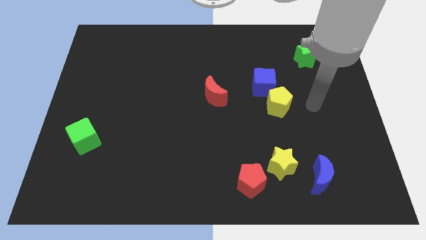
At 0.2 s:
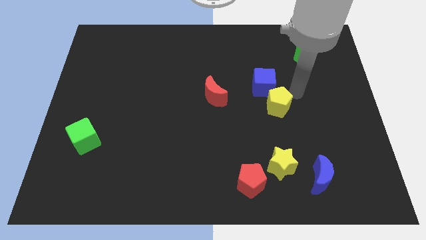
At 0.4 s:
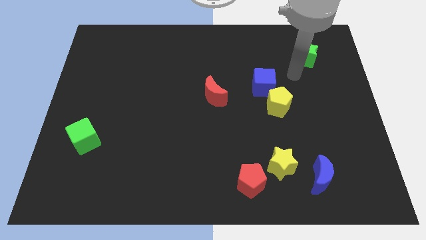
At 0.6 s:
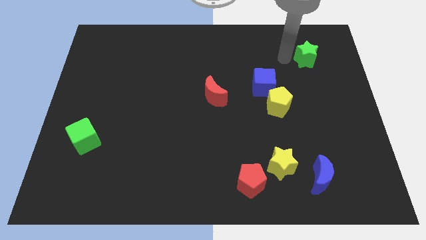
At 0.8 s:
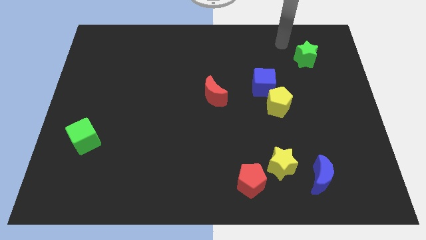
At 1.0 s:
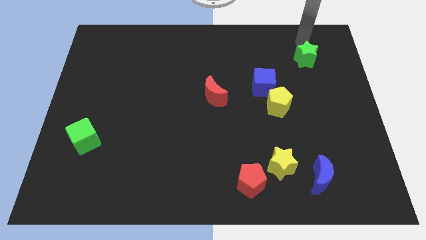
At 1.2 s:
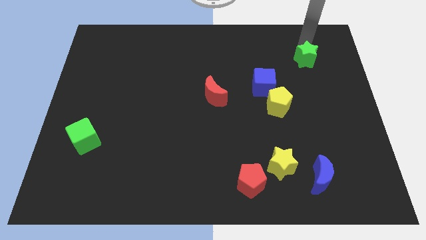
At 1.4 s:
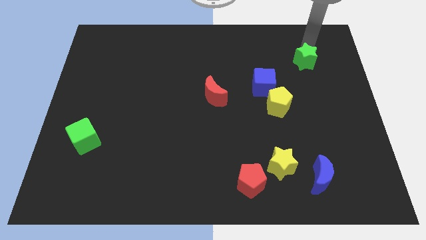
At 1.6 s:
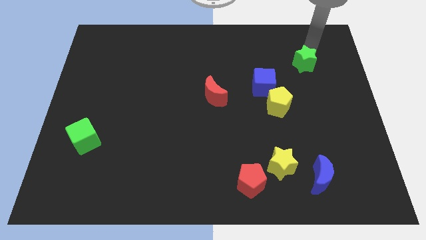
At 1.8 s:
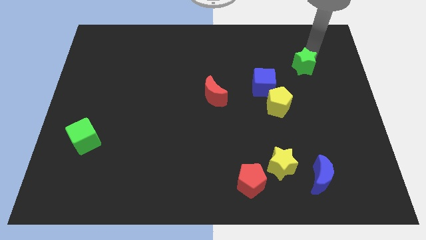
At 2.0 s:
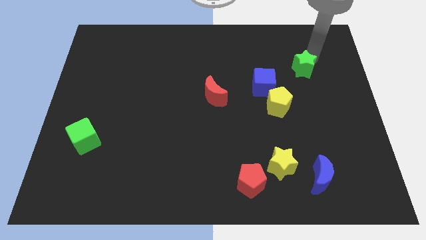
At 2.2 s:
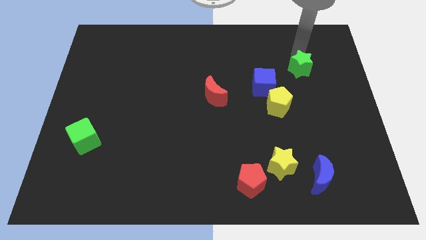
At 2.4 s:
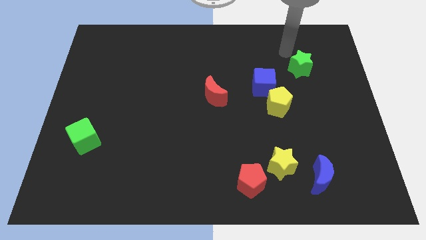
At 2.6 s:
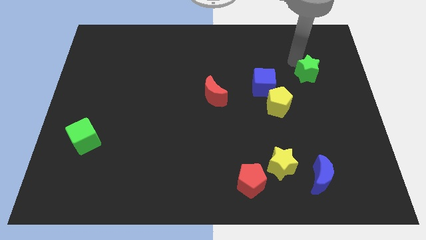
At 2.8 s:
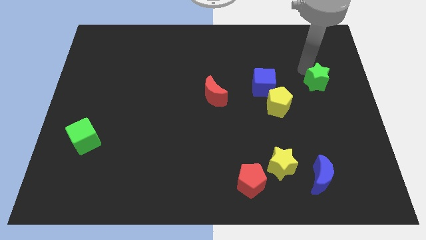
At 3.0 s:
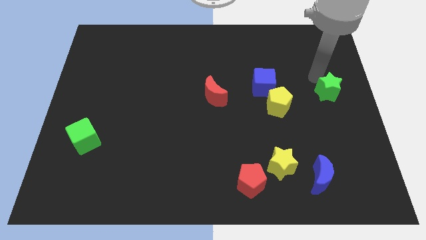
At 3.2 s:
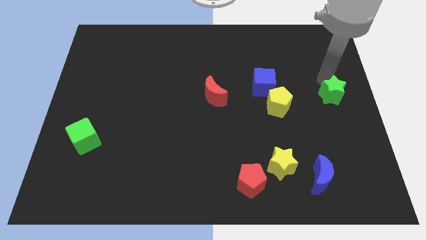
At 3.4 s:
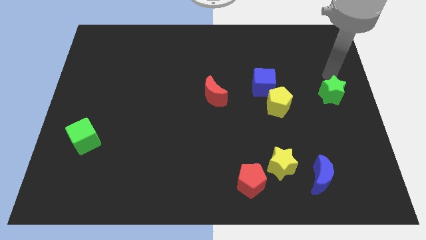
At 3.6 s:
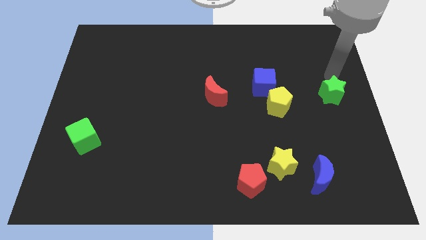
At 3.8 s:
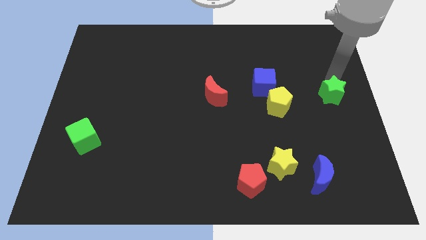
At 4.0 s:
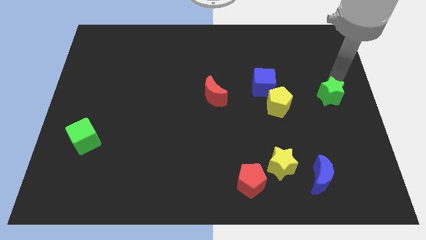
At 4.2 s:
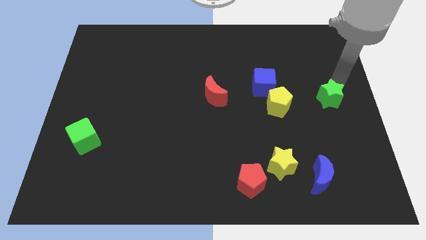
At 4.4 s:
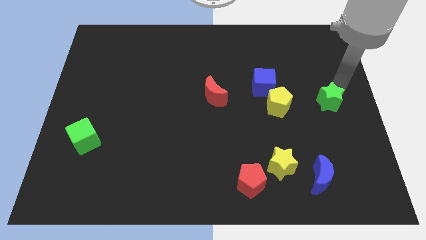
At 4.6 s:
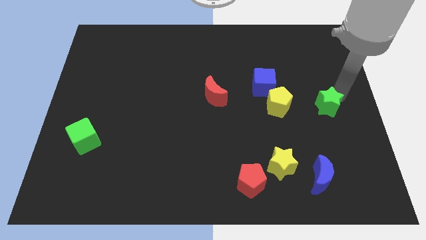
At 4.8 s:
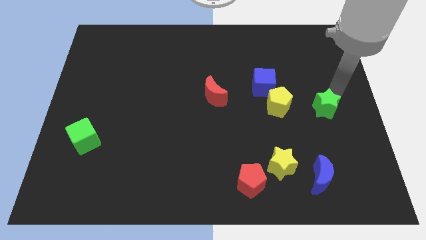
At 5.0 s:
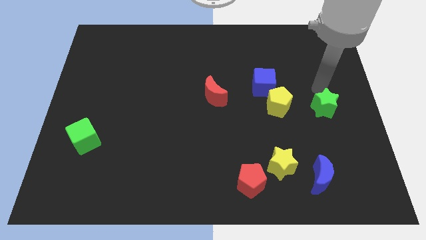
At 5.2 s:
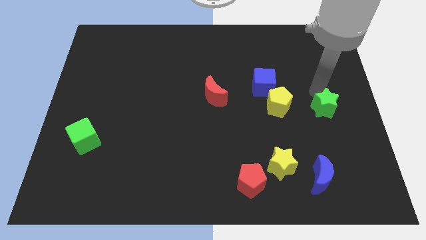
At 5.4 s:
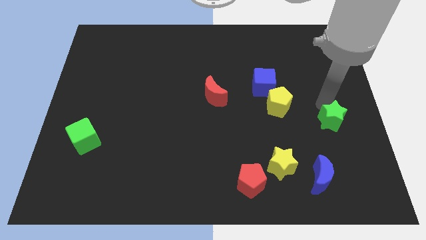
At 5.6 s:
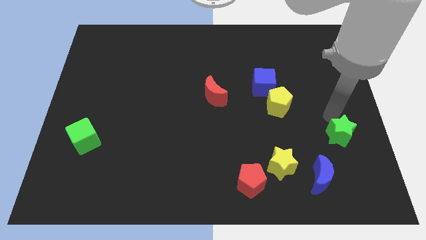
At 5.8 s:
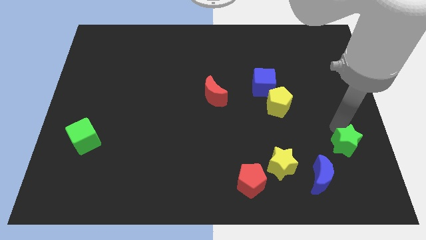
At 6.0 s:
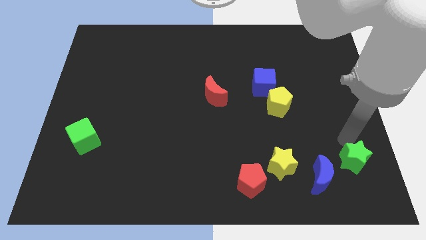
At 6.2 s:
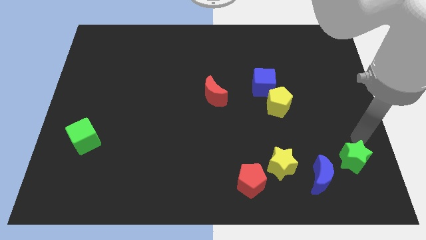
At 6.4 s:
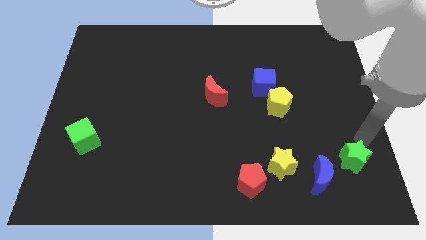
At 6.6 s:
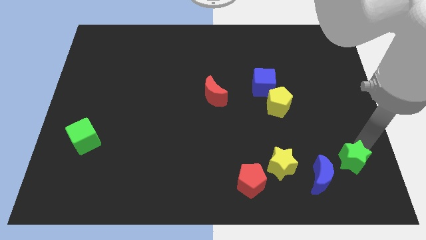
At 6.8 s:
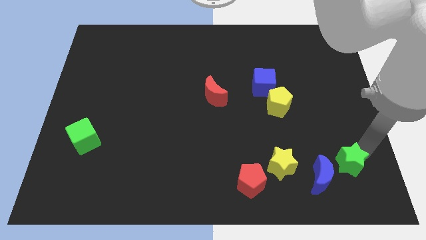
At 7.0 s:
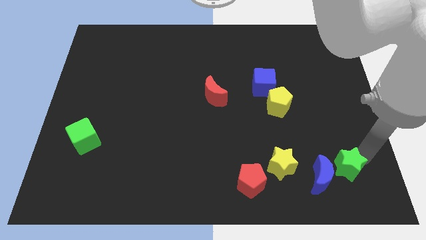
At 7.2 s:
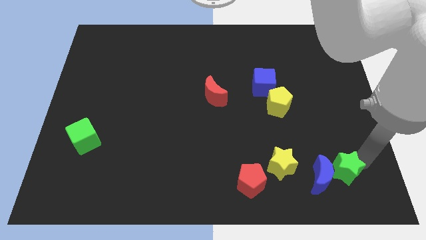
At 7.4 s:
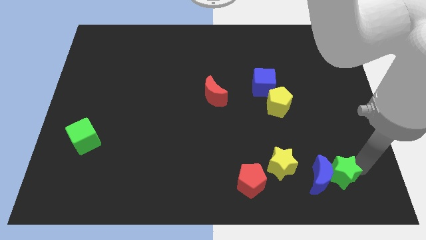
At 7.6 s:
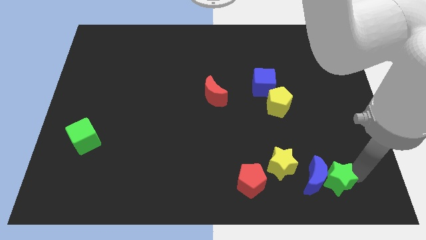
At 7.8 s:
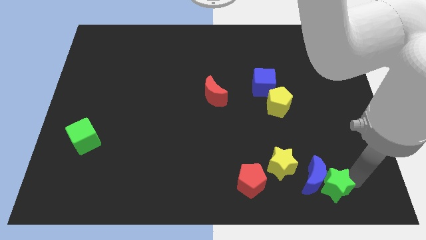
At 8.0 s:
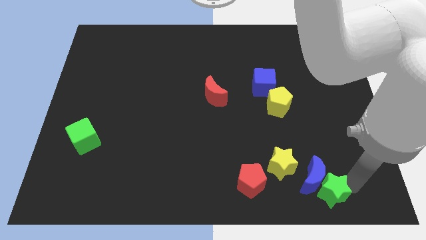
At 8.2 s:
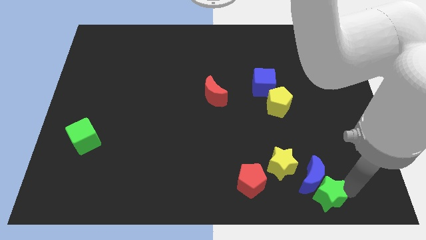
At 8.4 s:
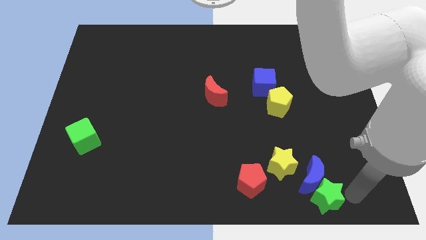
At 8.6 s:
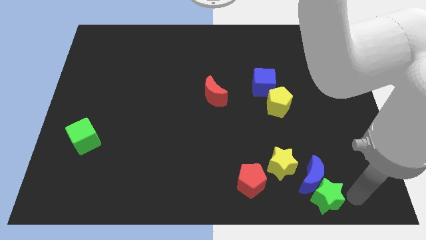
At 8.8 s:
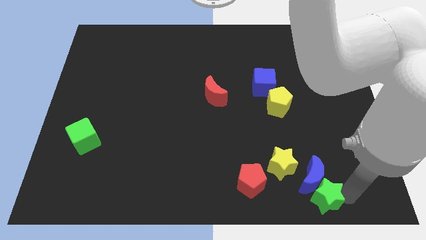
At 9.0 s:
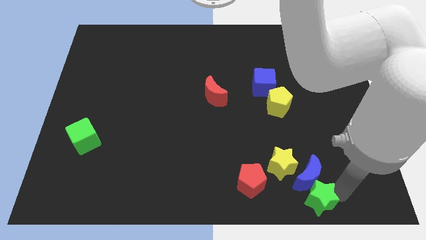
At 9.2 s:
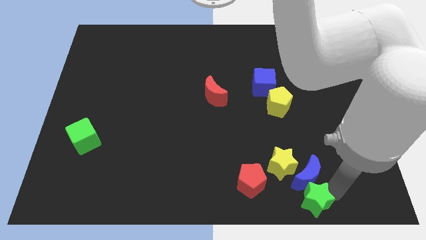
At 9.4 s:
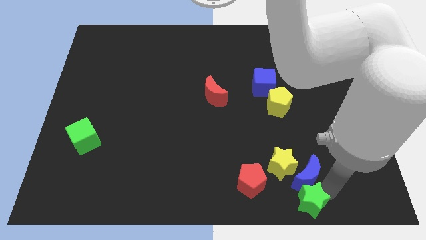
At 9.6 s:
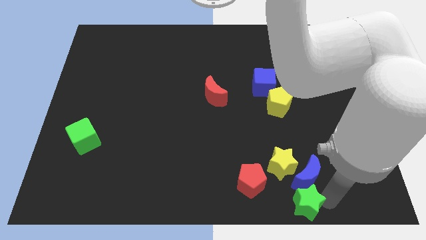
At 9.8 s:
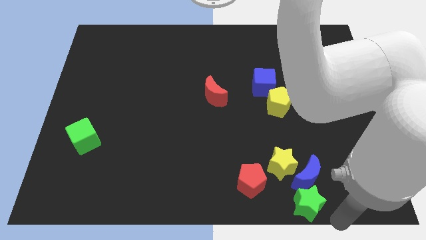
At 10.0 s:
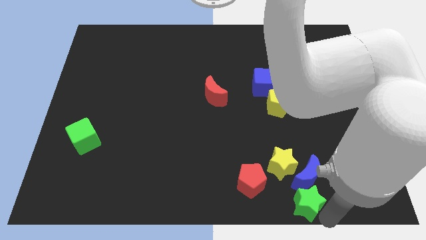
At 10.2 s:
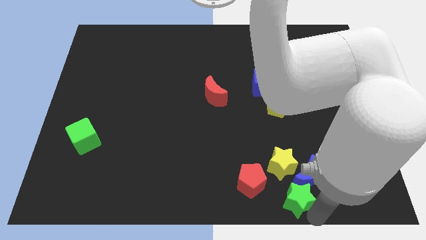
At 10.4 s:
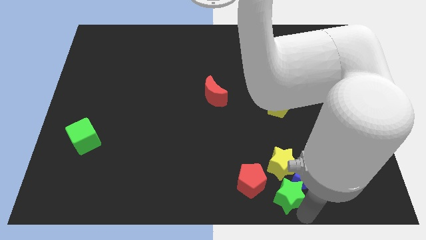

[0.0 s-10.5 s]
move the green star just left of the blue moon

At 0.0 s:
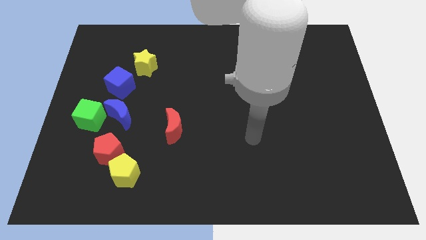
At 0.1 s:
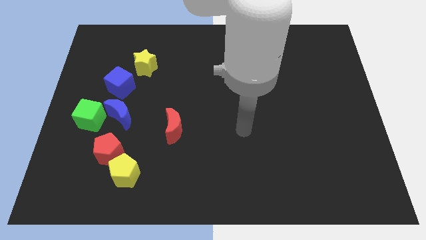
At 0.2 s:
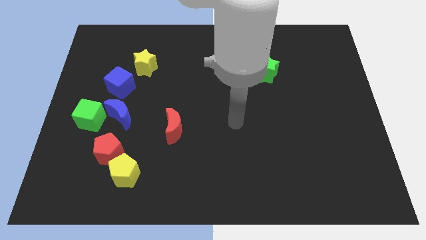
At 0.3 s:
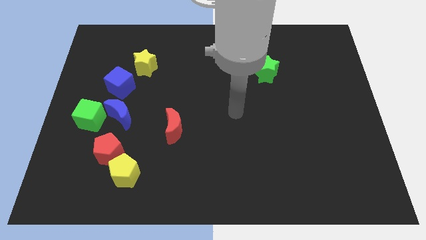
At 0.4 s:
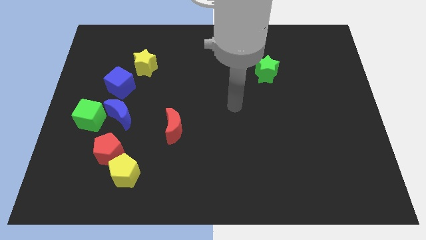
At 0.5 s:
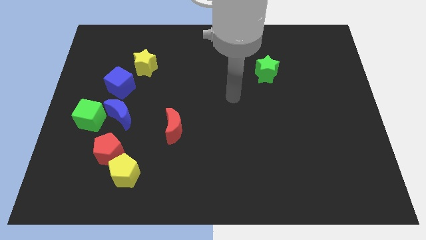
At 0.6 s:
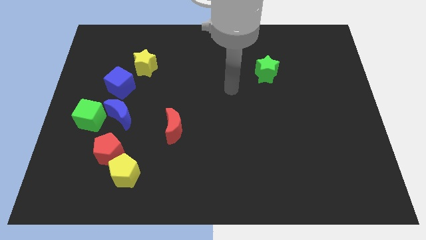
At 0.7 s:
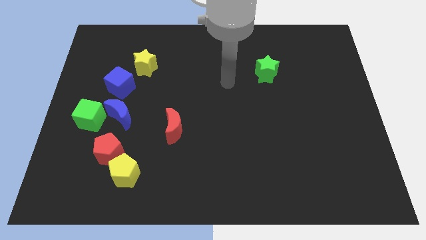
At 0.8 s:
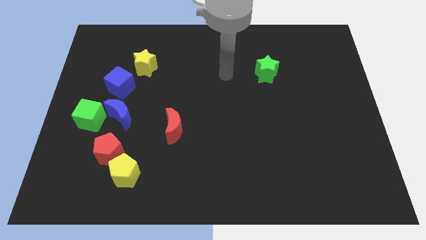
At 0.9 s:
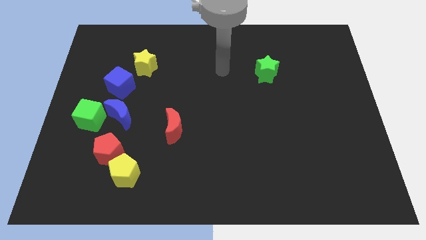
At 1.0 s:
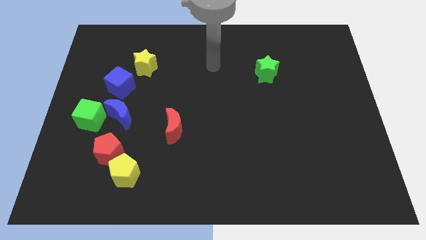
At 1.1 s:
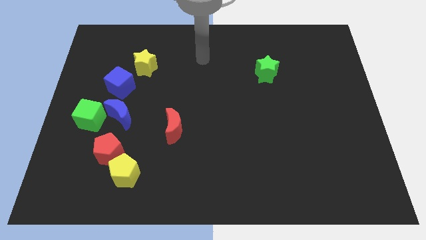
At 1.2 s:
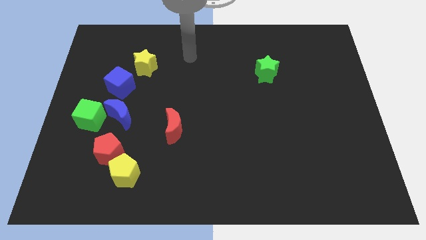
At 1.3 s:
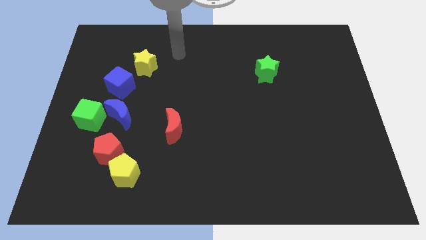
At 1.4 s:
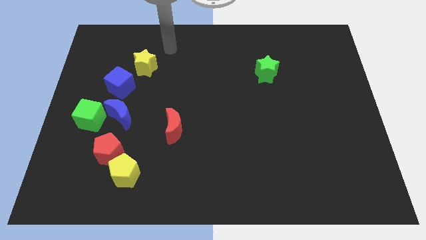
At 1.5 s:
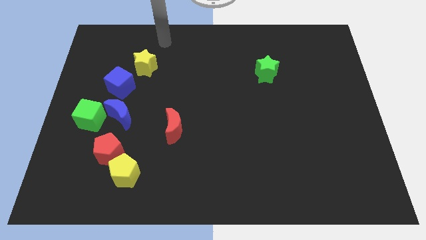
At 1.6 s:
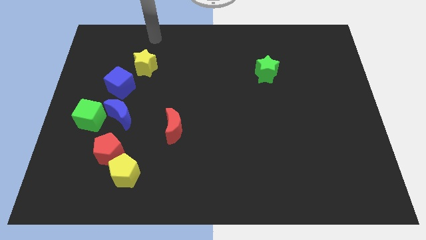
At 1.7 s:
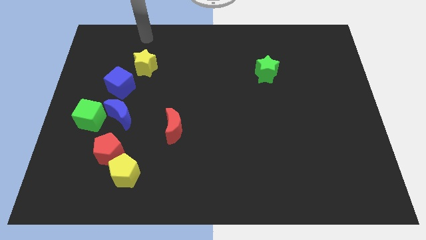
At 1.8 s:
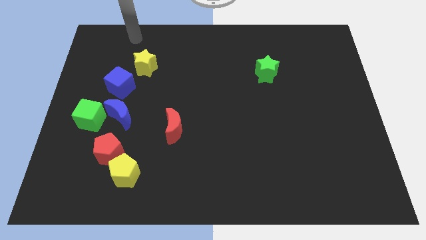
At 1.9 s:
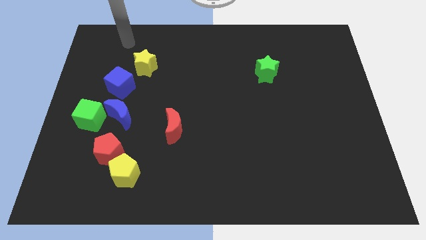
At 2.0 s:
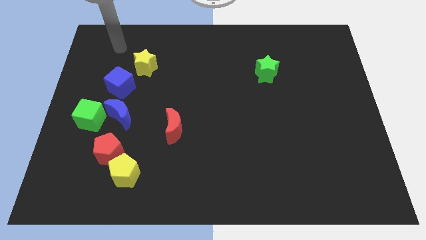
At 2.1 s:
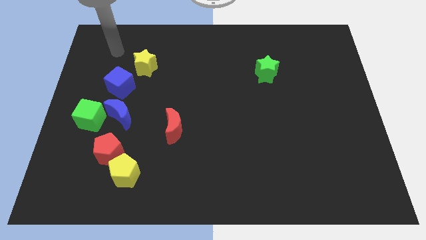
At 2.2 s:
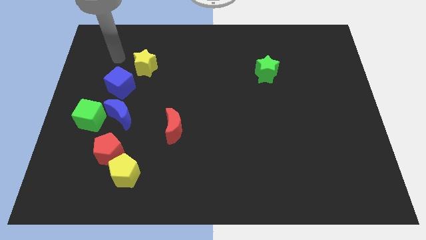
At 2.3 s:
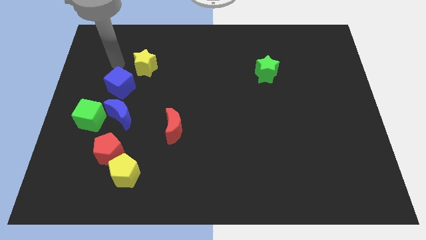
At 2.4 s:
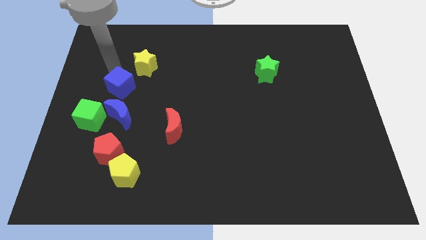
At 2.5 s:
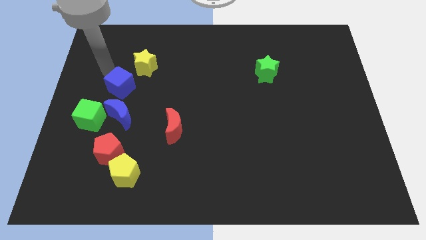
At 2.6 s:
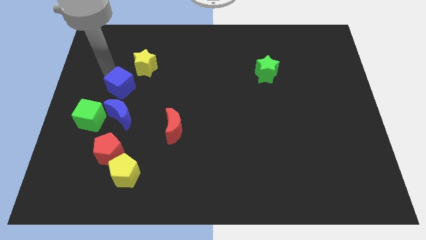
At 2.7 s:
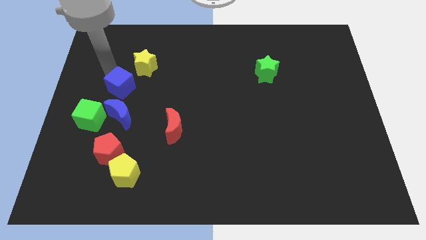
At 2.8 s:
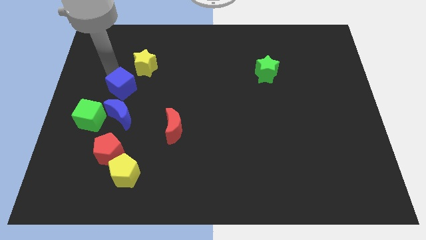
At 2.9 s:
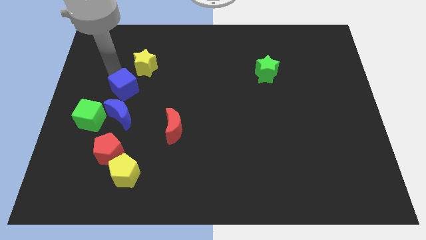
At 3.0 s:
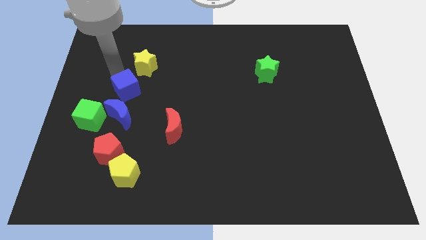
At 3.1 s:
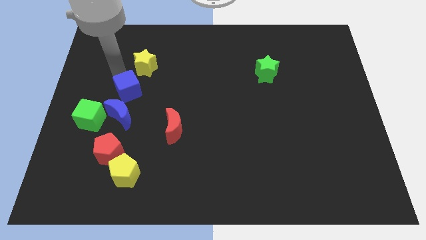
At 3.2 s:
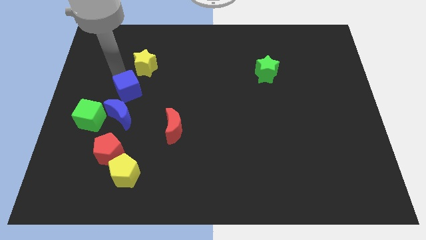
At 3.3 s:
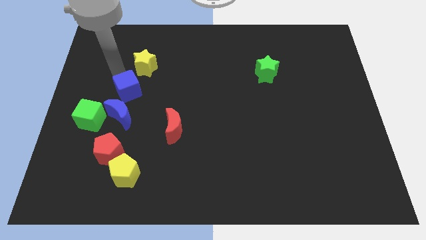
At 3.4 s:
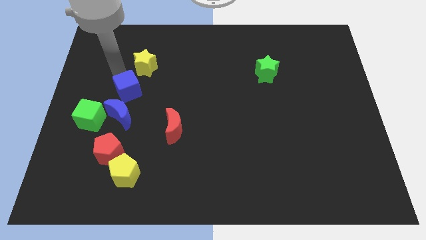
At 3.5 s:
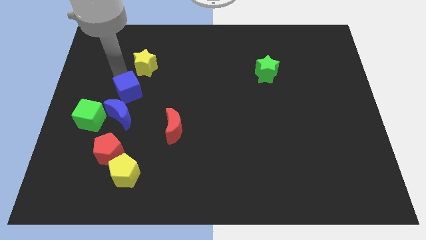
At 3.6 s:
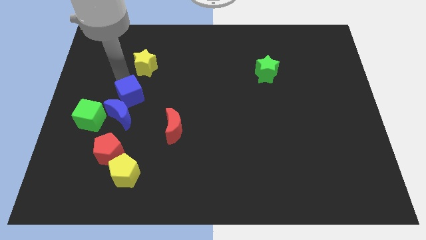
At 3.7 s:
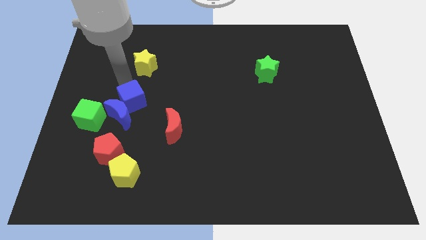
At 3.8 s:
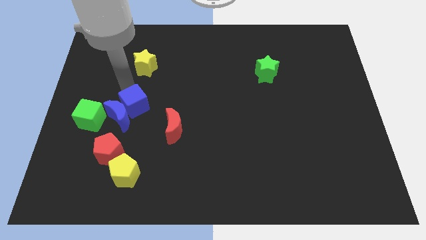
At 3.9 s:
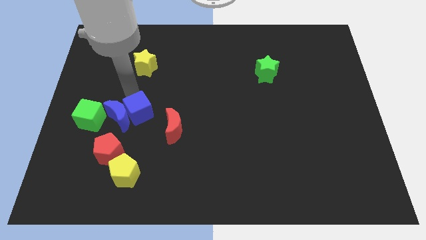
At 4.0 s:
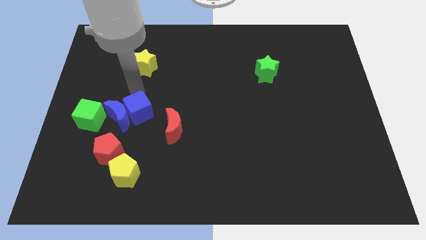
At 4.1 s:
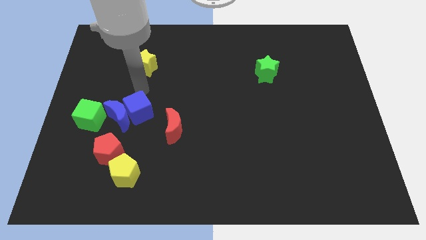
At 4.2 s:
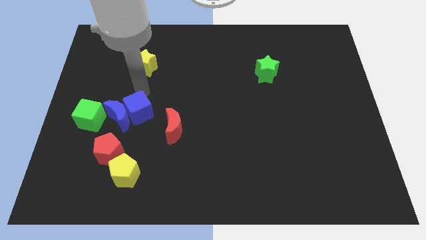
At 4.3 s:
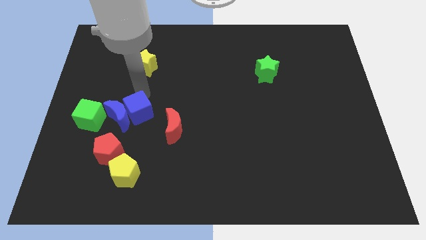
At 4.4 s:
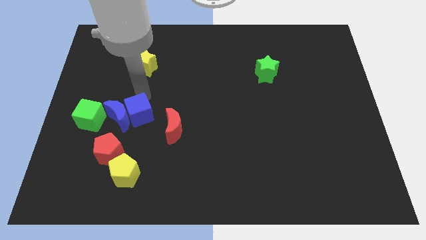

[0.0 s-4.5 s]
move the blue cube to the top right of the red pentagon
